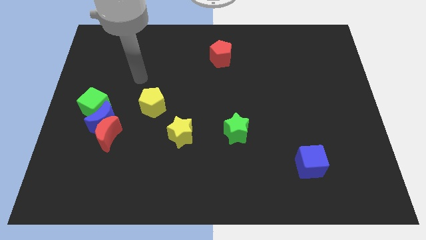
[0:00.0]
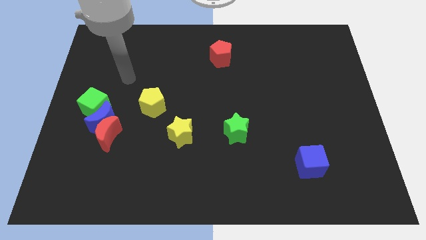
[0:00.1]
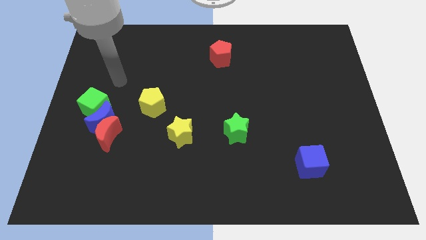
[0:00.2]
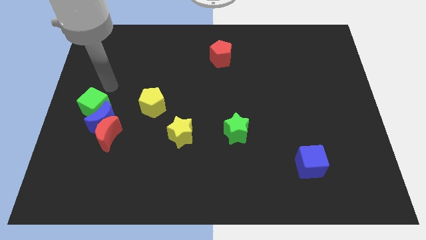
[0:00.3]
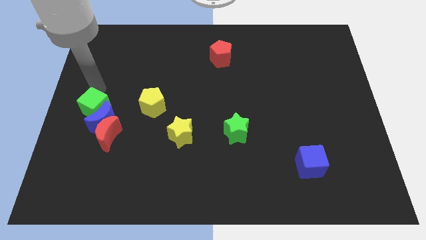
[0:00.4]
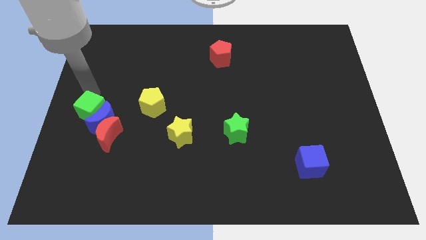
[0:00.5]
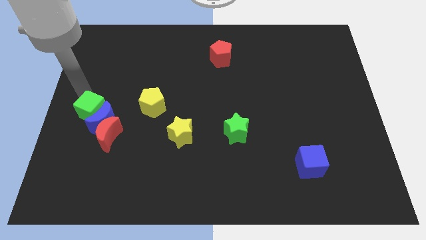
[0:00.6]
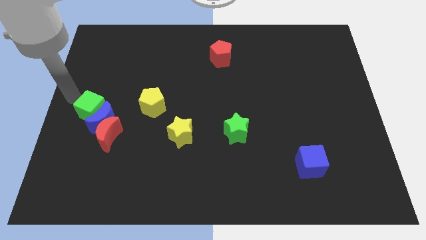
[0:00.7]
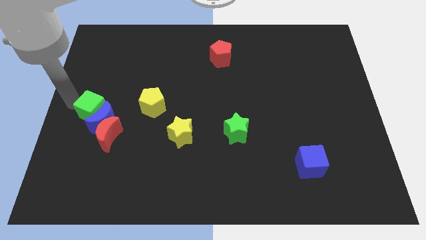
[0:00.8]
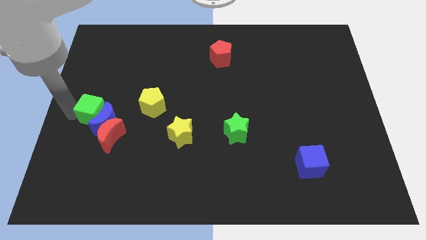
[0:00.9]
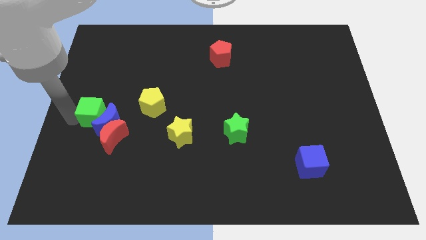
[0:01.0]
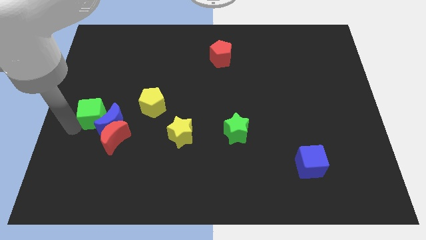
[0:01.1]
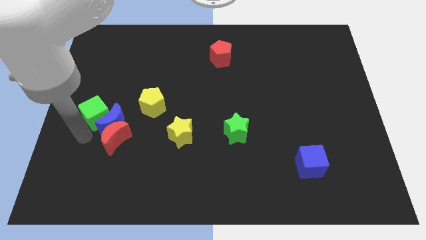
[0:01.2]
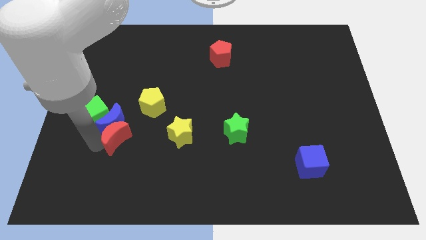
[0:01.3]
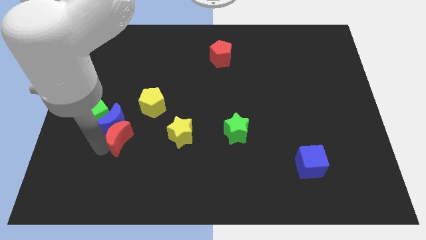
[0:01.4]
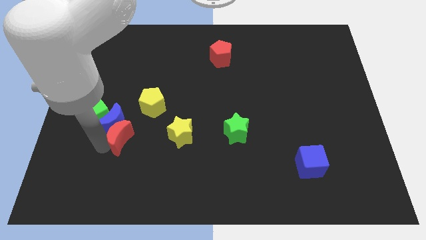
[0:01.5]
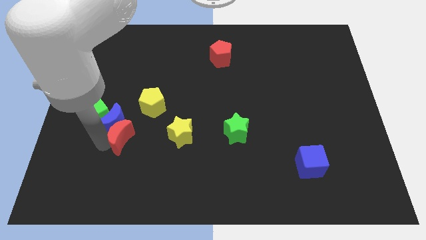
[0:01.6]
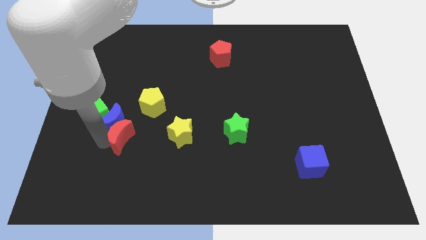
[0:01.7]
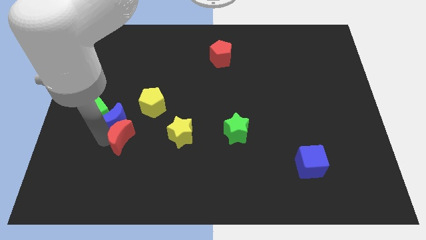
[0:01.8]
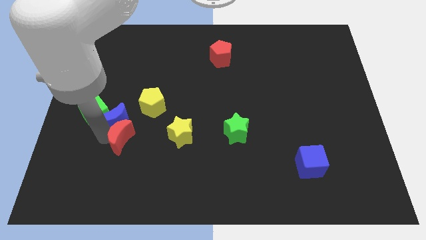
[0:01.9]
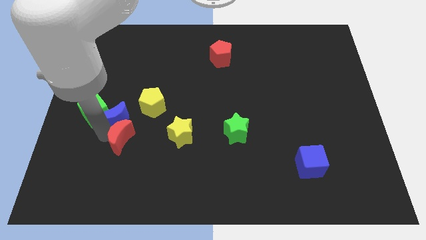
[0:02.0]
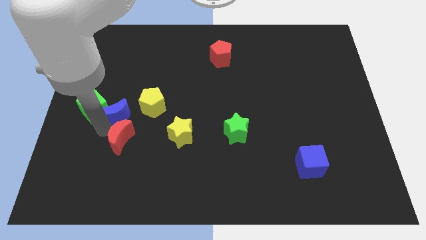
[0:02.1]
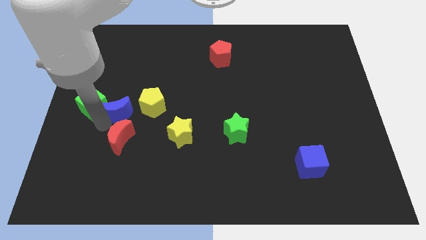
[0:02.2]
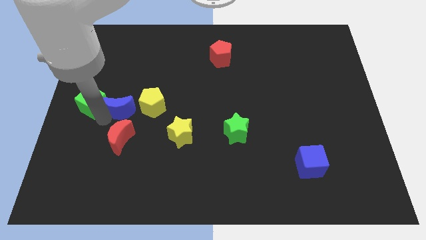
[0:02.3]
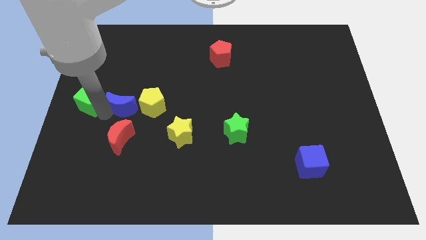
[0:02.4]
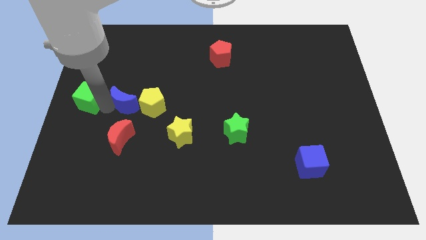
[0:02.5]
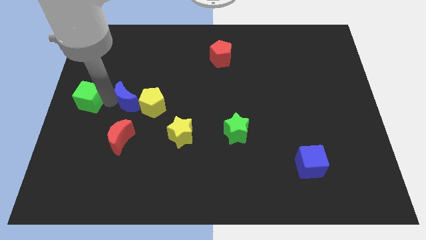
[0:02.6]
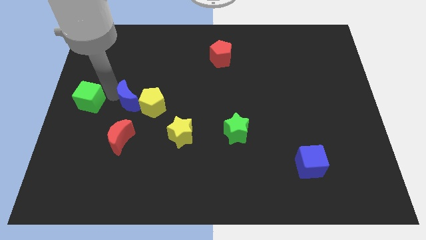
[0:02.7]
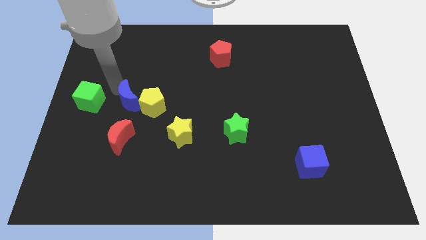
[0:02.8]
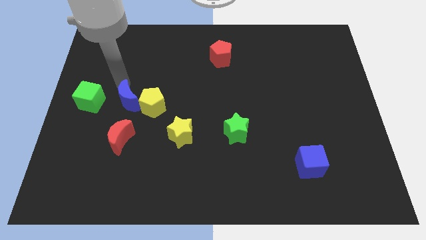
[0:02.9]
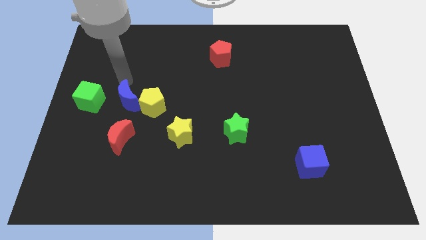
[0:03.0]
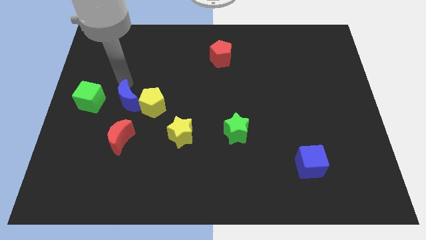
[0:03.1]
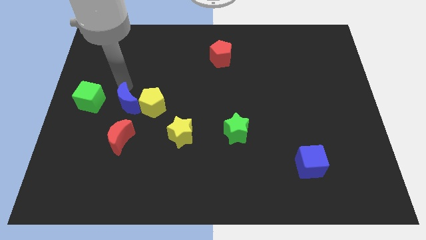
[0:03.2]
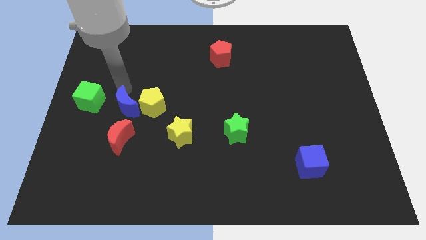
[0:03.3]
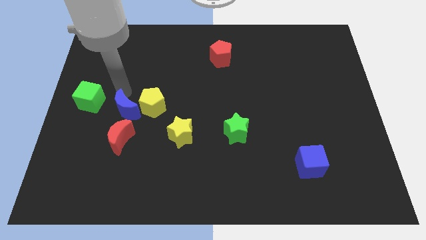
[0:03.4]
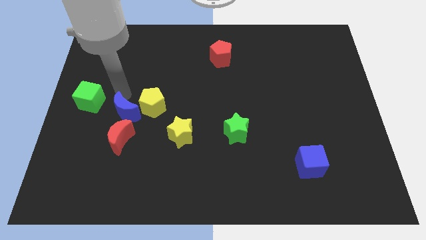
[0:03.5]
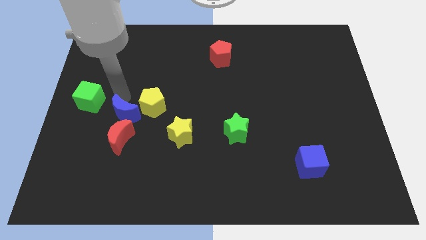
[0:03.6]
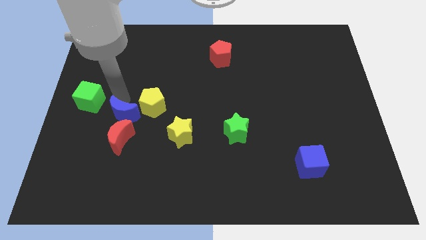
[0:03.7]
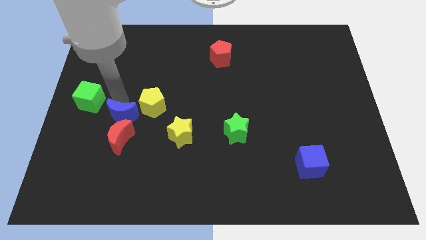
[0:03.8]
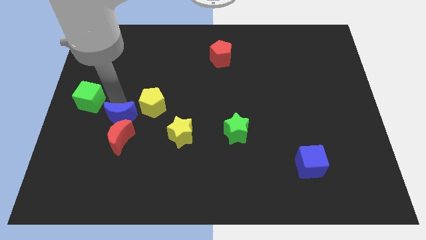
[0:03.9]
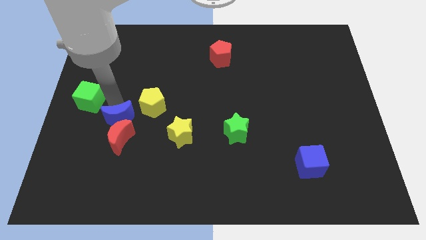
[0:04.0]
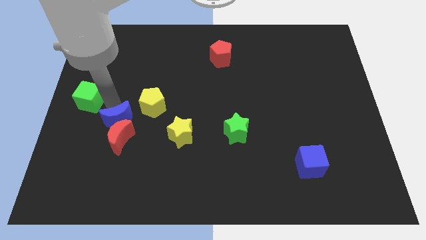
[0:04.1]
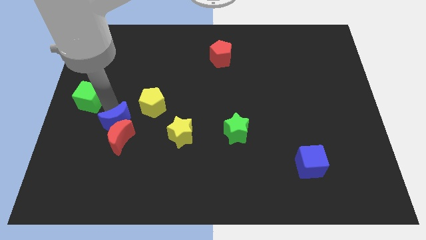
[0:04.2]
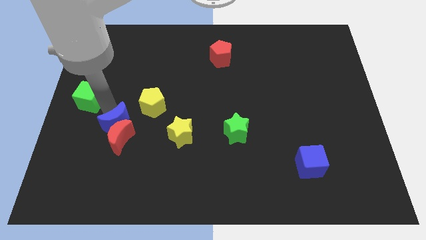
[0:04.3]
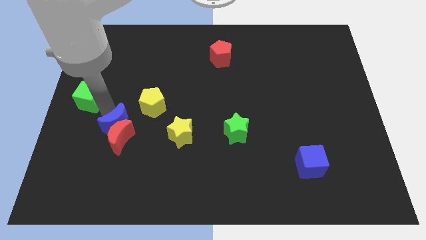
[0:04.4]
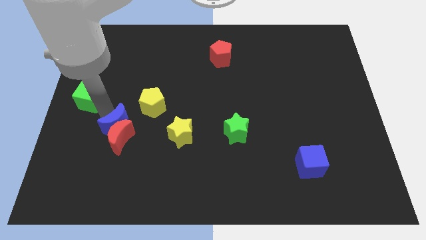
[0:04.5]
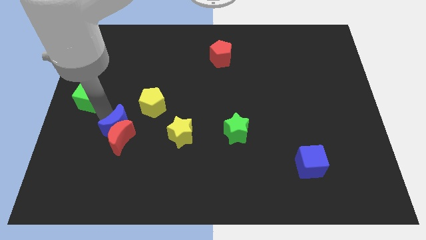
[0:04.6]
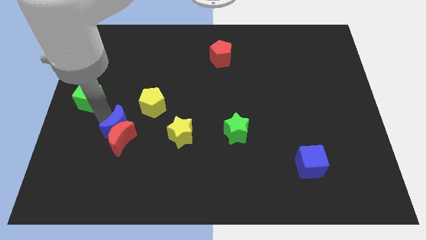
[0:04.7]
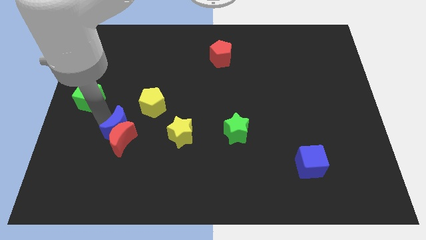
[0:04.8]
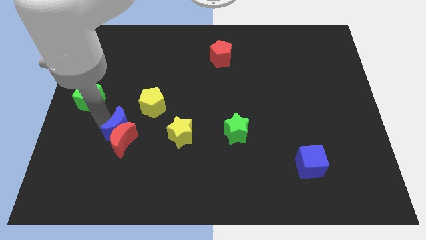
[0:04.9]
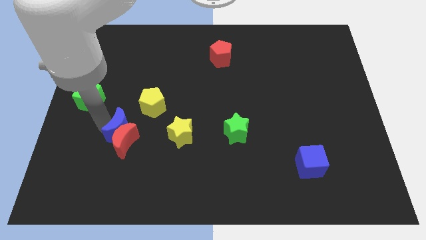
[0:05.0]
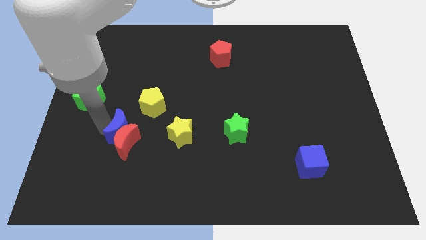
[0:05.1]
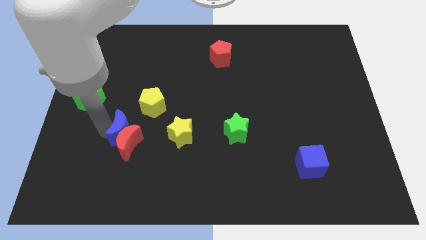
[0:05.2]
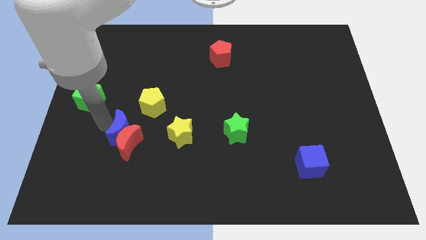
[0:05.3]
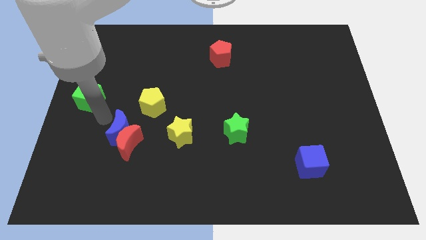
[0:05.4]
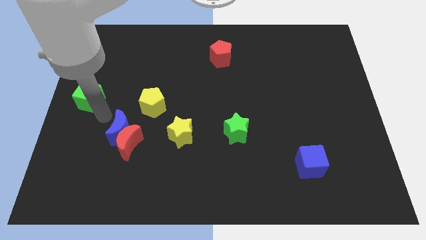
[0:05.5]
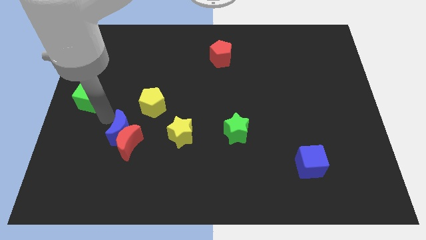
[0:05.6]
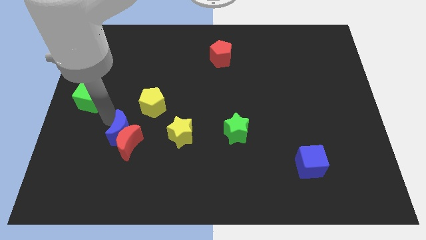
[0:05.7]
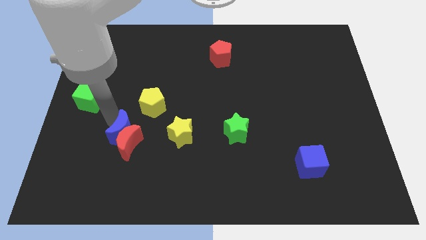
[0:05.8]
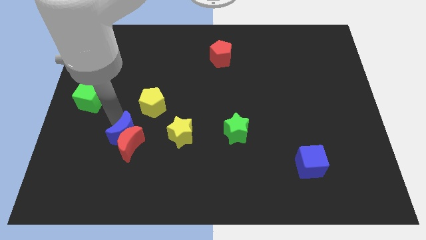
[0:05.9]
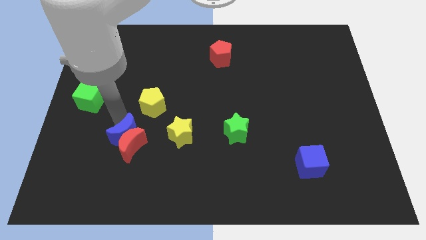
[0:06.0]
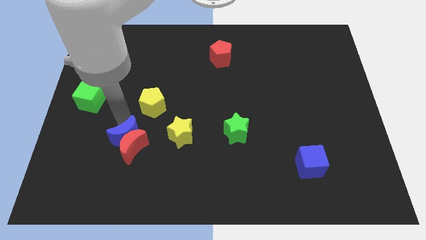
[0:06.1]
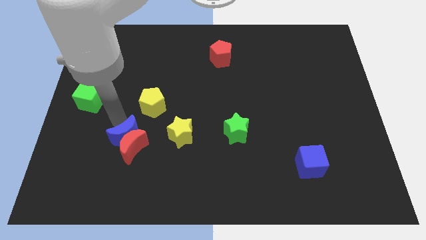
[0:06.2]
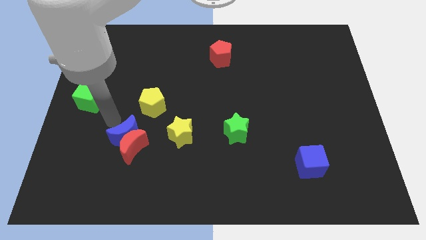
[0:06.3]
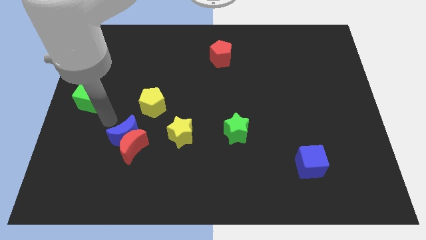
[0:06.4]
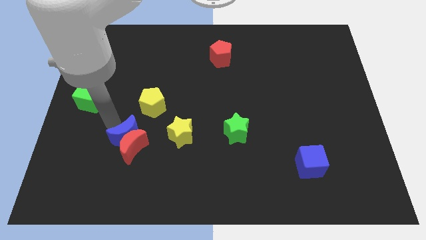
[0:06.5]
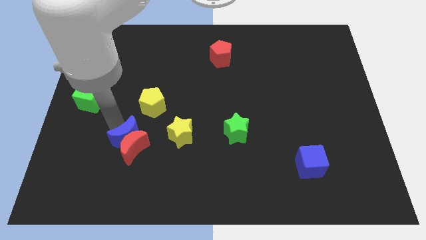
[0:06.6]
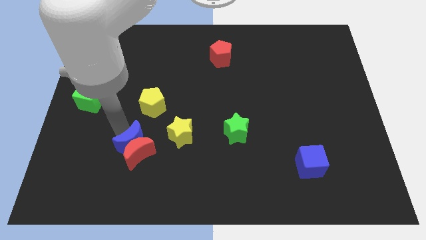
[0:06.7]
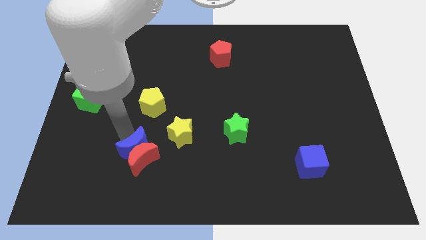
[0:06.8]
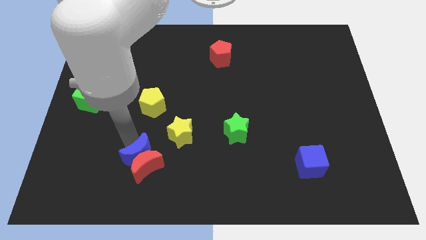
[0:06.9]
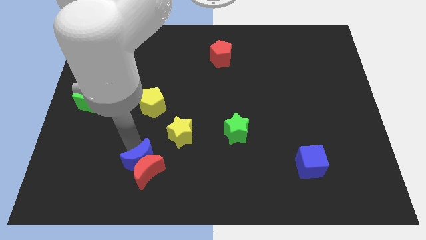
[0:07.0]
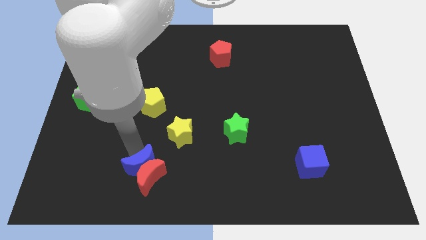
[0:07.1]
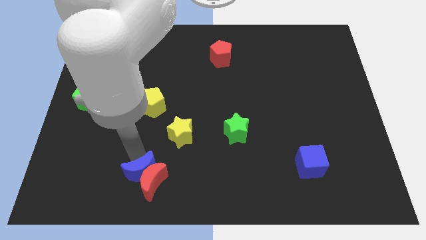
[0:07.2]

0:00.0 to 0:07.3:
move the blue moon away from the red moon and green cube

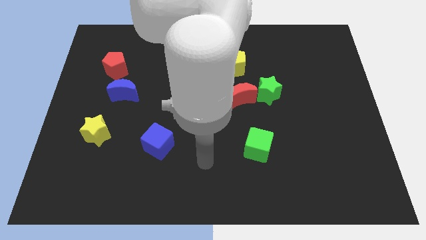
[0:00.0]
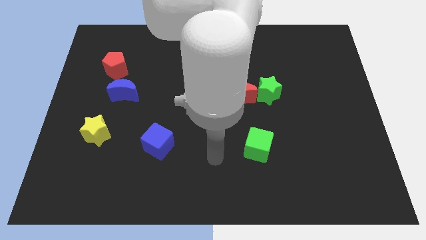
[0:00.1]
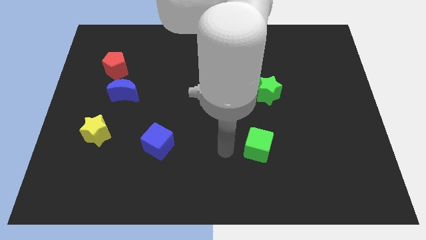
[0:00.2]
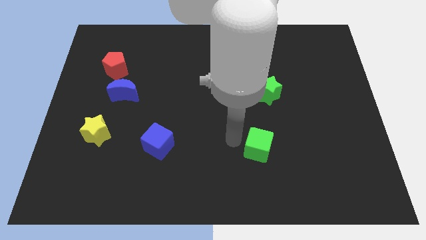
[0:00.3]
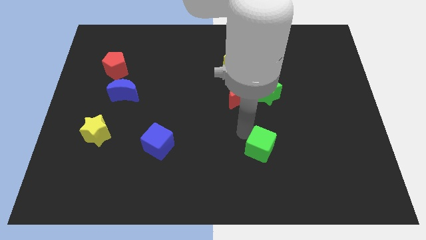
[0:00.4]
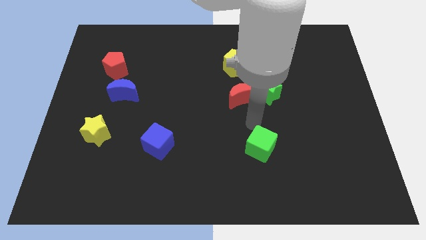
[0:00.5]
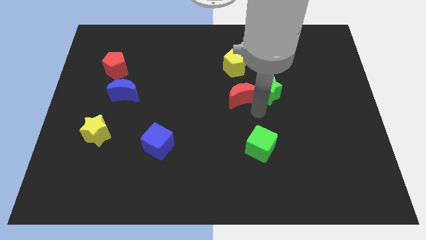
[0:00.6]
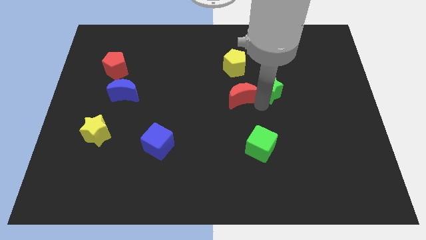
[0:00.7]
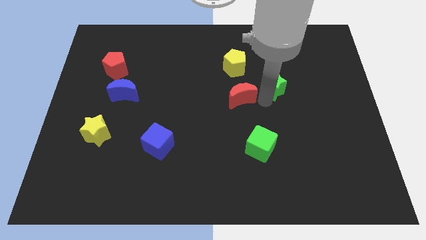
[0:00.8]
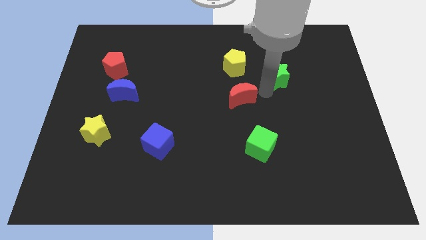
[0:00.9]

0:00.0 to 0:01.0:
separate the red moon from the green star

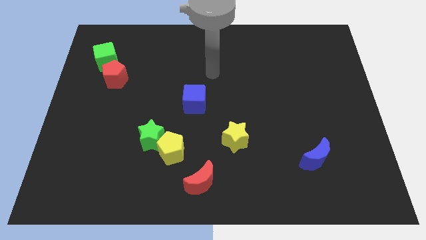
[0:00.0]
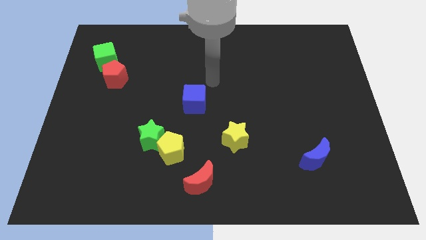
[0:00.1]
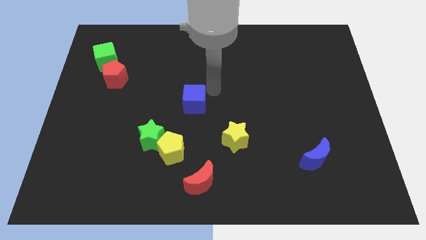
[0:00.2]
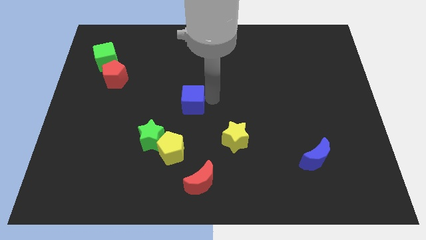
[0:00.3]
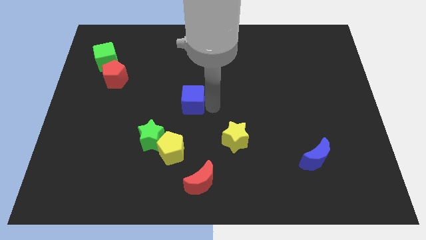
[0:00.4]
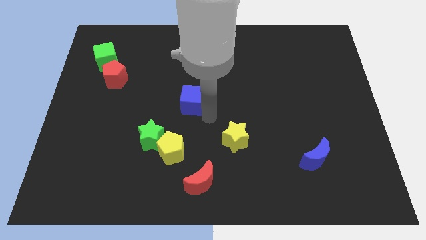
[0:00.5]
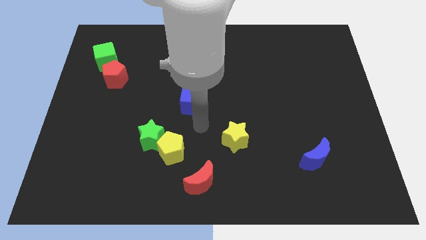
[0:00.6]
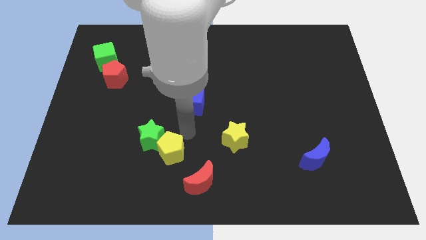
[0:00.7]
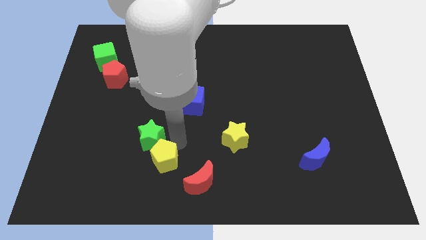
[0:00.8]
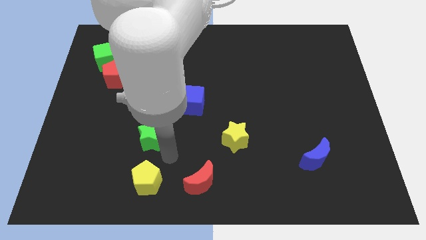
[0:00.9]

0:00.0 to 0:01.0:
separate the green star from the yellow pentagon

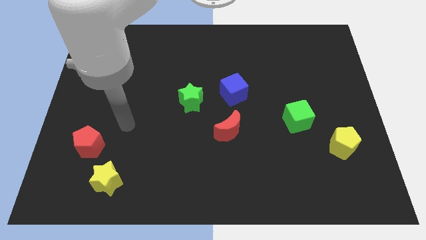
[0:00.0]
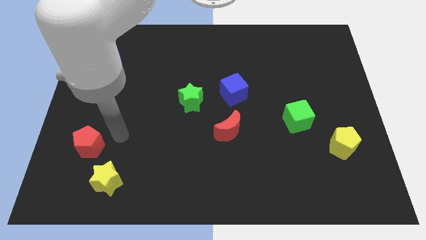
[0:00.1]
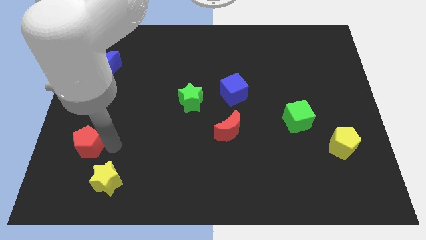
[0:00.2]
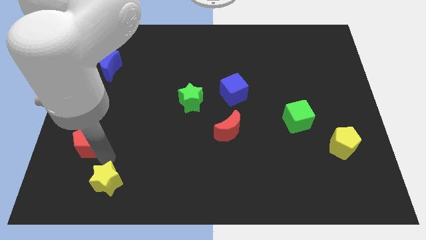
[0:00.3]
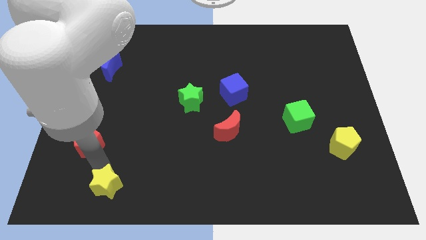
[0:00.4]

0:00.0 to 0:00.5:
pull the red pentagon apart from the yellow star
